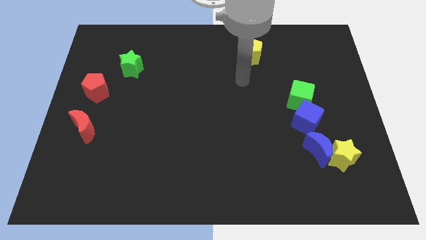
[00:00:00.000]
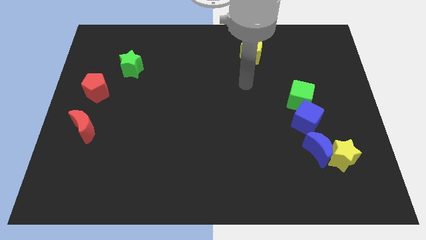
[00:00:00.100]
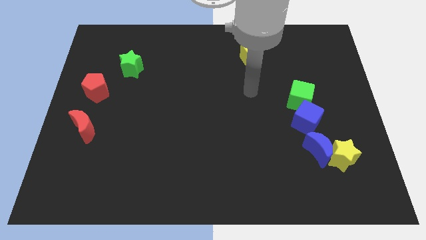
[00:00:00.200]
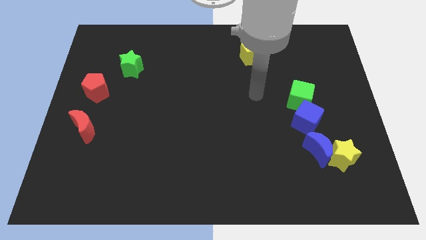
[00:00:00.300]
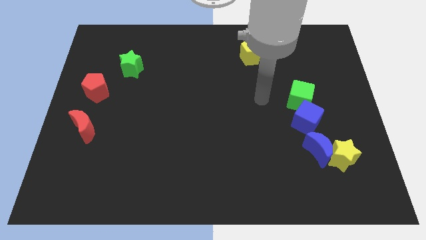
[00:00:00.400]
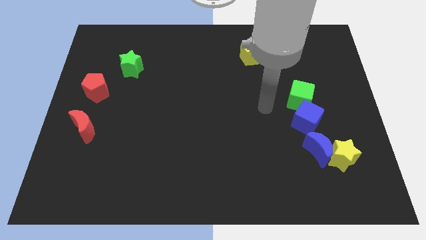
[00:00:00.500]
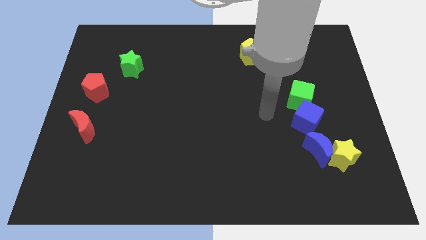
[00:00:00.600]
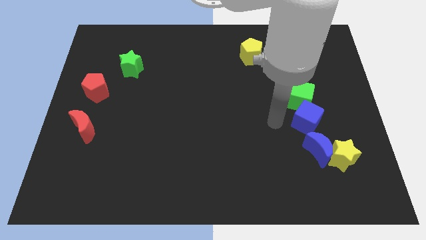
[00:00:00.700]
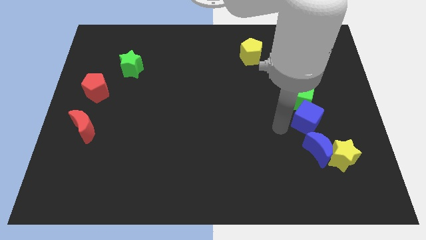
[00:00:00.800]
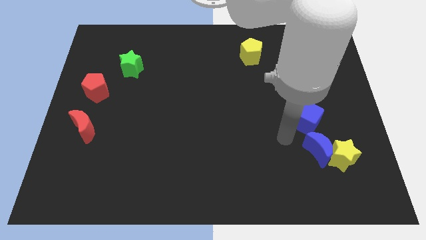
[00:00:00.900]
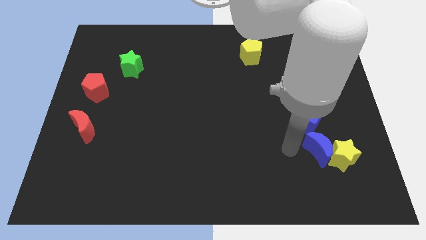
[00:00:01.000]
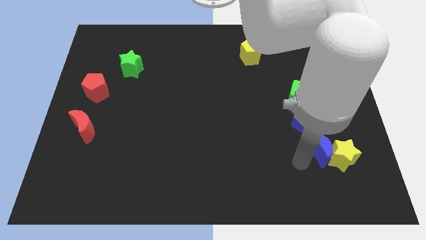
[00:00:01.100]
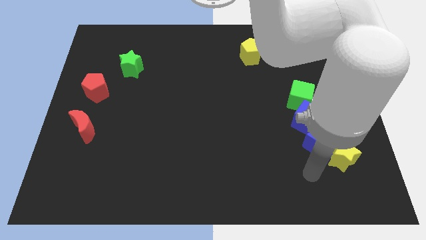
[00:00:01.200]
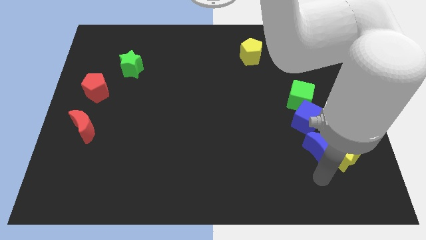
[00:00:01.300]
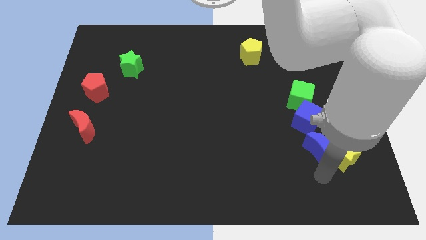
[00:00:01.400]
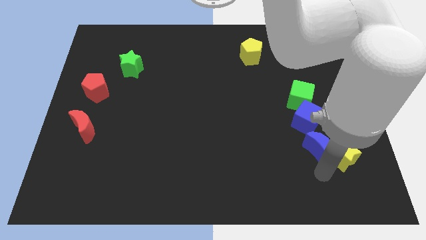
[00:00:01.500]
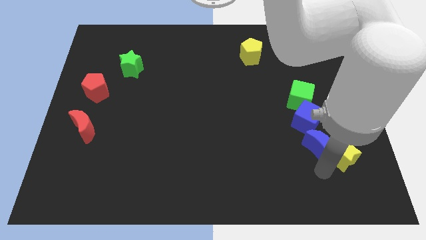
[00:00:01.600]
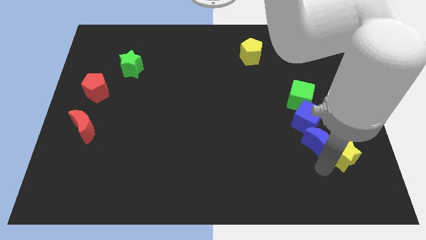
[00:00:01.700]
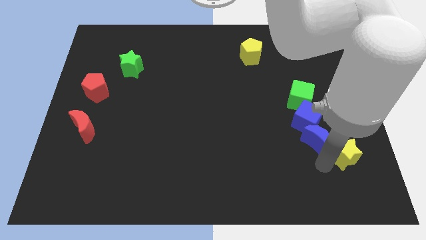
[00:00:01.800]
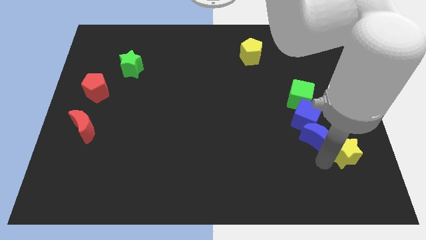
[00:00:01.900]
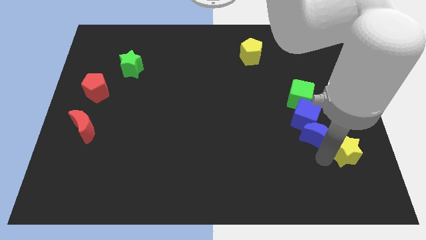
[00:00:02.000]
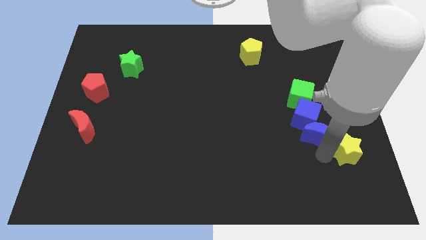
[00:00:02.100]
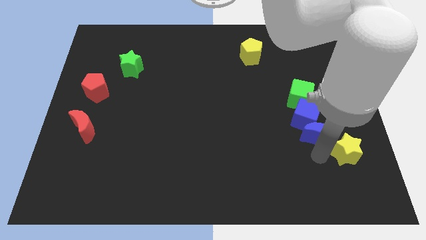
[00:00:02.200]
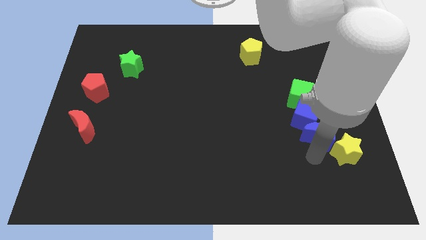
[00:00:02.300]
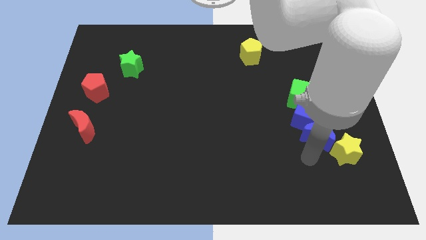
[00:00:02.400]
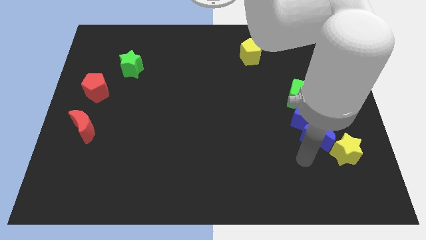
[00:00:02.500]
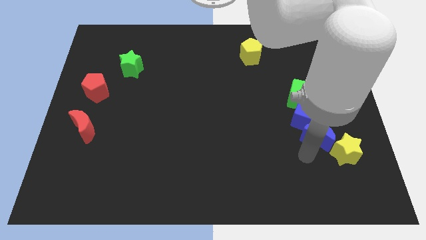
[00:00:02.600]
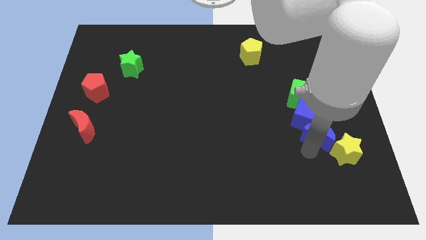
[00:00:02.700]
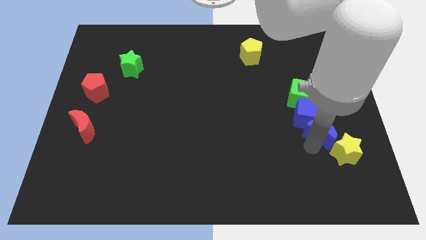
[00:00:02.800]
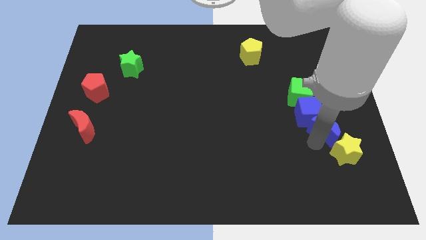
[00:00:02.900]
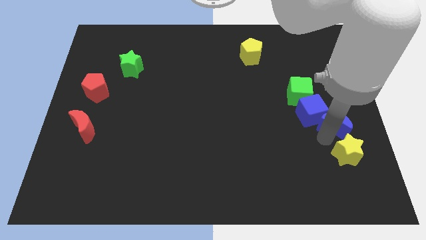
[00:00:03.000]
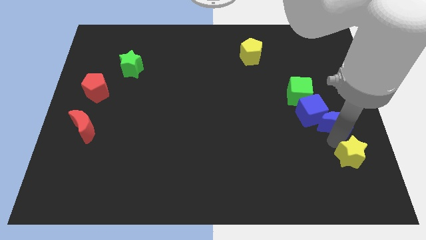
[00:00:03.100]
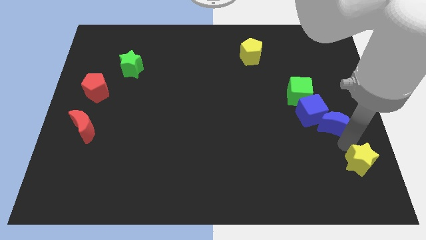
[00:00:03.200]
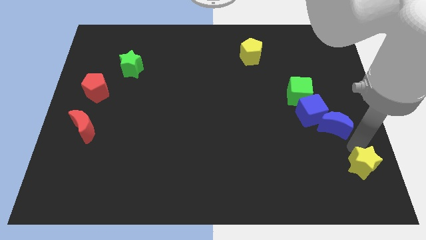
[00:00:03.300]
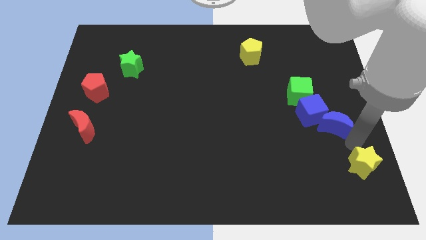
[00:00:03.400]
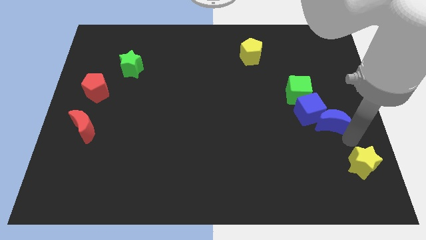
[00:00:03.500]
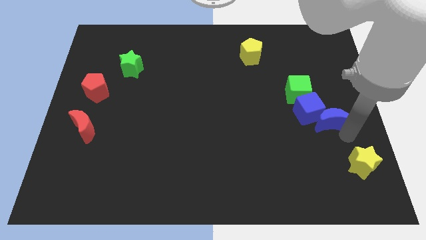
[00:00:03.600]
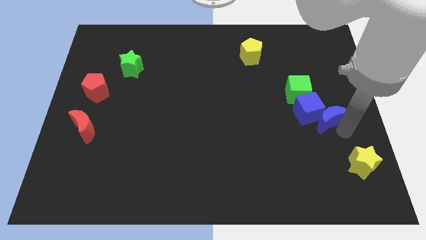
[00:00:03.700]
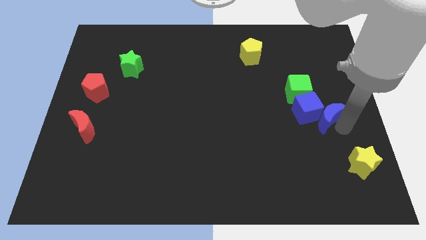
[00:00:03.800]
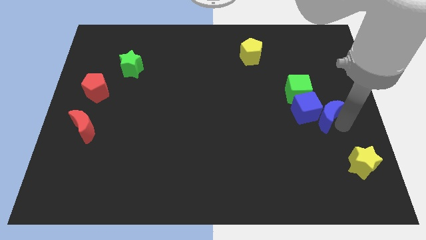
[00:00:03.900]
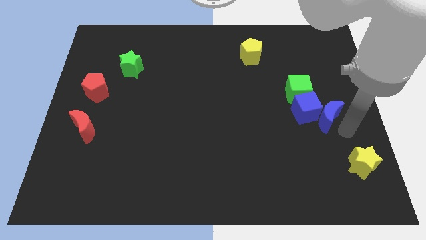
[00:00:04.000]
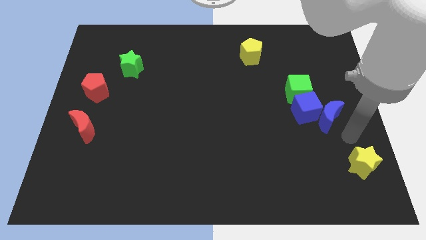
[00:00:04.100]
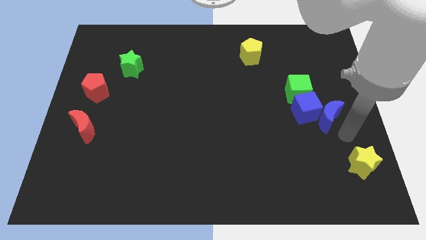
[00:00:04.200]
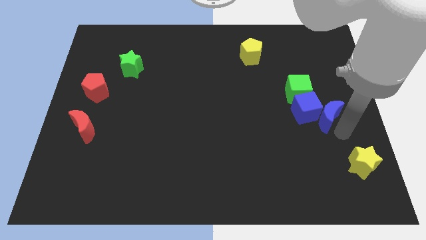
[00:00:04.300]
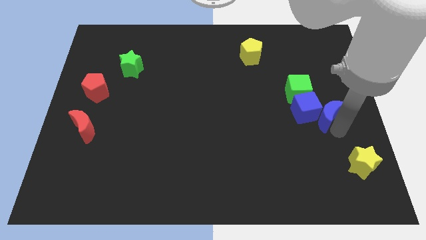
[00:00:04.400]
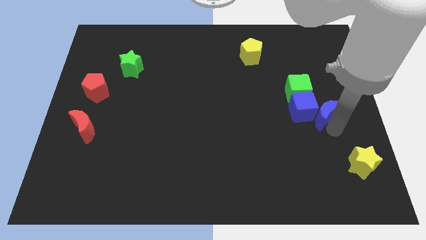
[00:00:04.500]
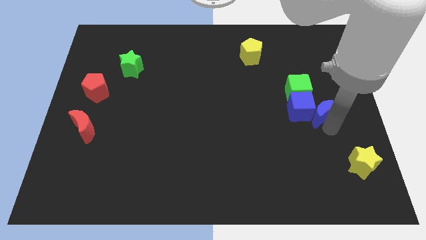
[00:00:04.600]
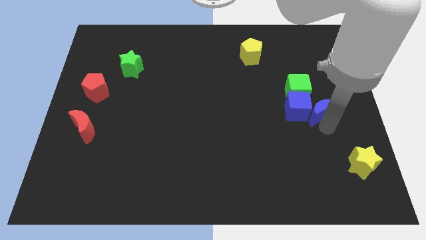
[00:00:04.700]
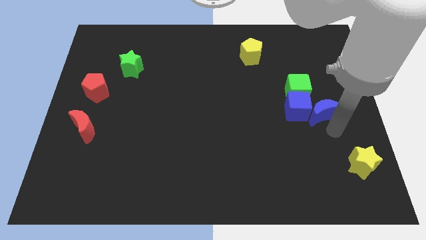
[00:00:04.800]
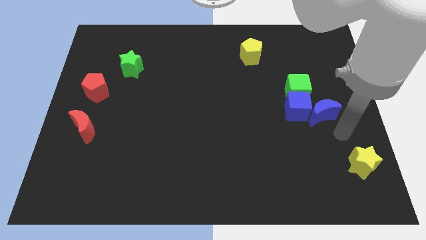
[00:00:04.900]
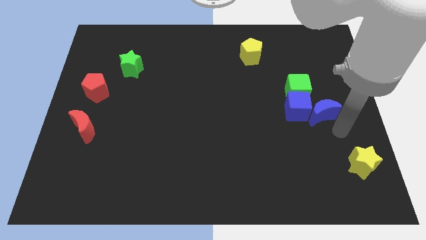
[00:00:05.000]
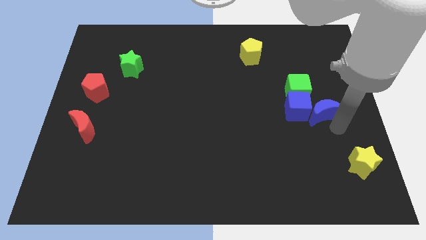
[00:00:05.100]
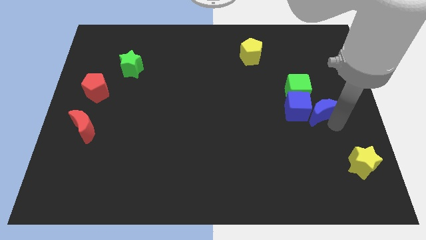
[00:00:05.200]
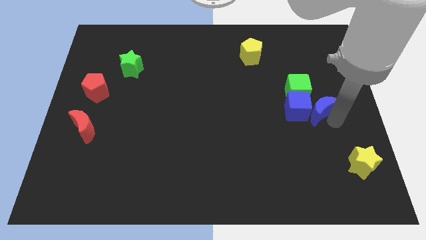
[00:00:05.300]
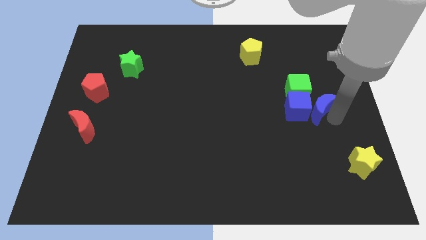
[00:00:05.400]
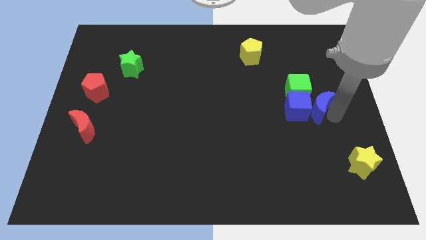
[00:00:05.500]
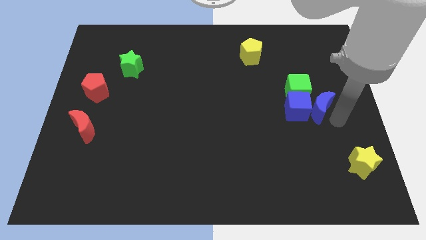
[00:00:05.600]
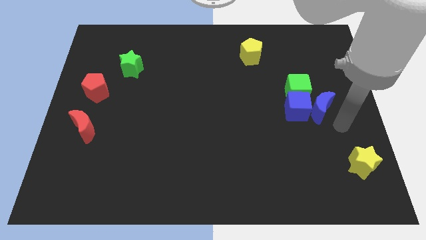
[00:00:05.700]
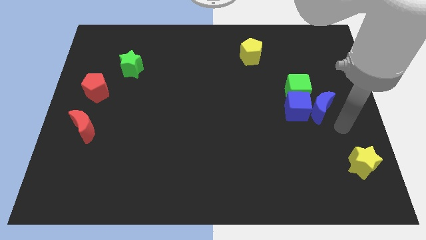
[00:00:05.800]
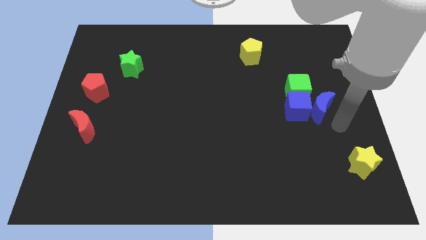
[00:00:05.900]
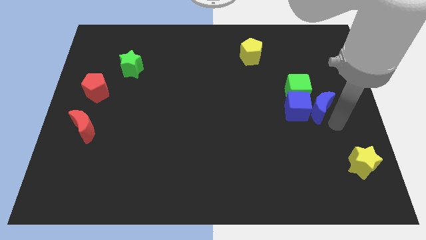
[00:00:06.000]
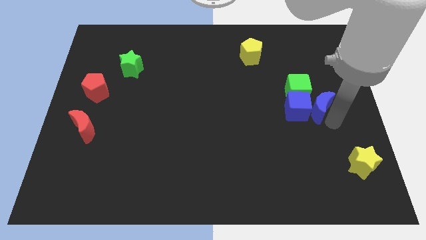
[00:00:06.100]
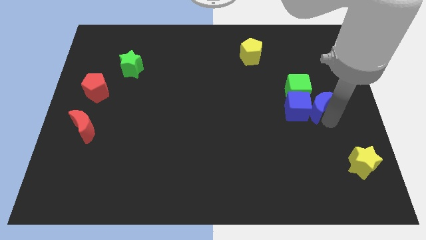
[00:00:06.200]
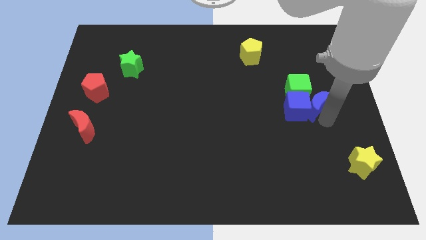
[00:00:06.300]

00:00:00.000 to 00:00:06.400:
push the blue moon close to the green cube
